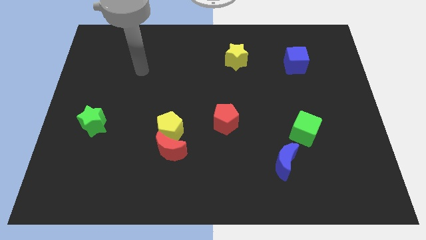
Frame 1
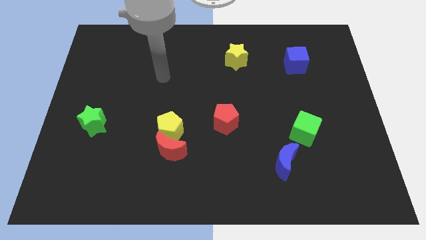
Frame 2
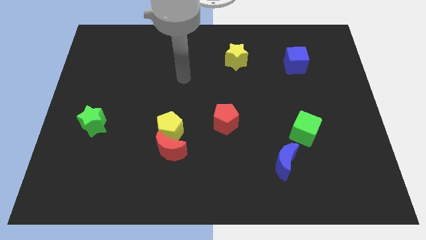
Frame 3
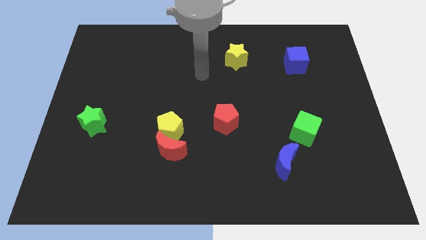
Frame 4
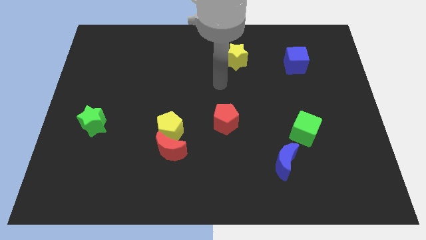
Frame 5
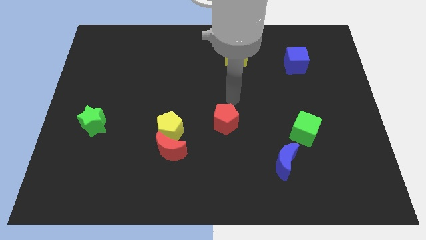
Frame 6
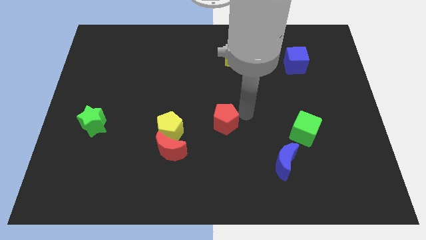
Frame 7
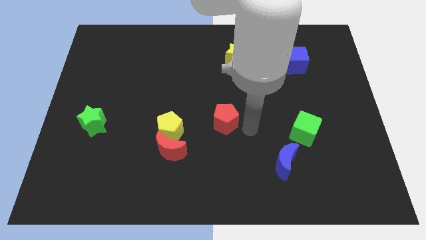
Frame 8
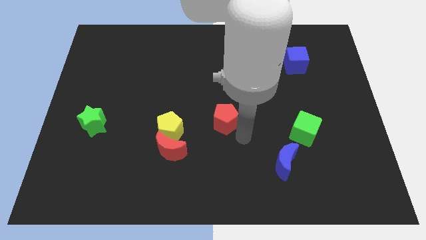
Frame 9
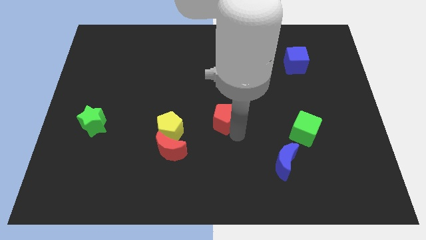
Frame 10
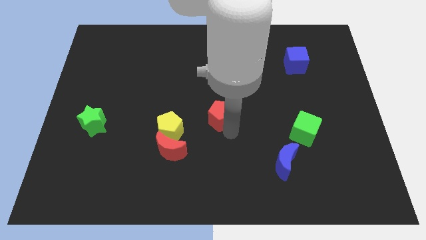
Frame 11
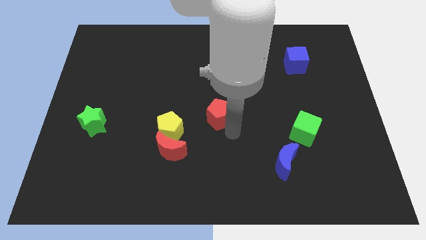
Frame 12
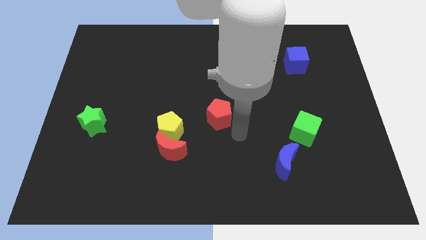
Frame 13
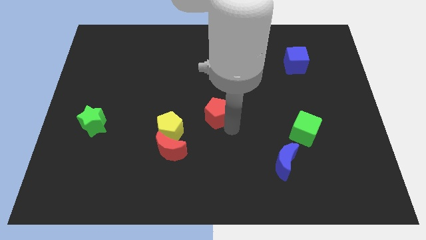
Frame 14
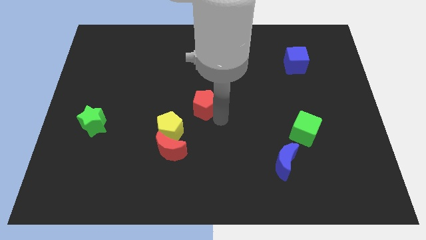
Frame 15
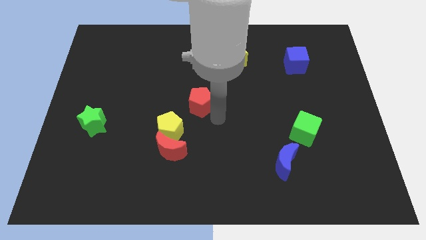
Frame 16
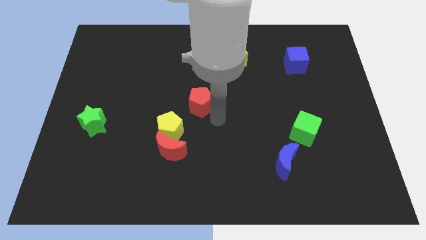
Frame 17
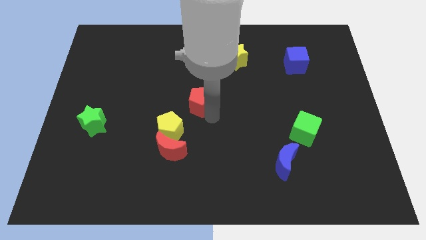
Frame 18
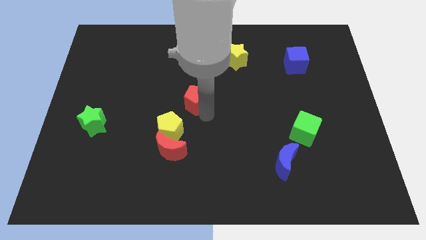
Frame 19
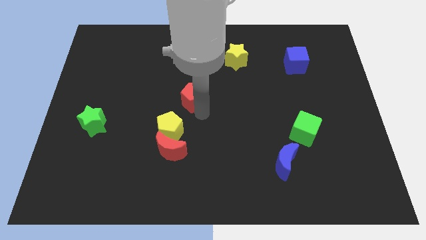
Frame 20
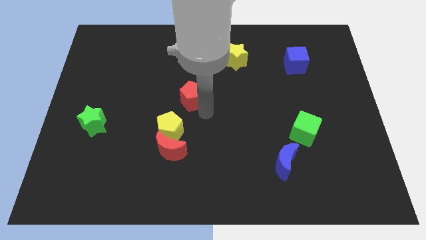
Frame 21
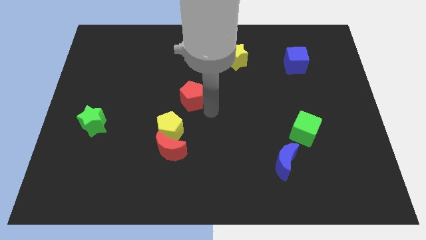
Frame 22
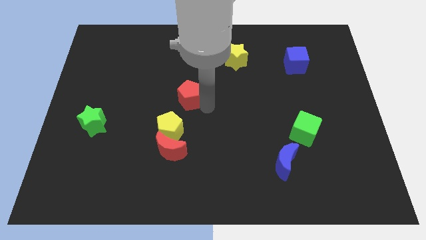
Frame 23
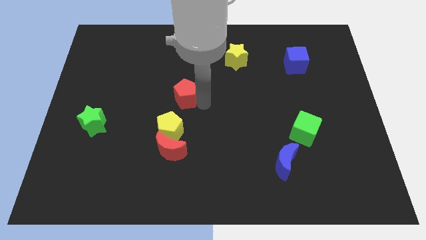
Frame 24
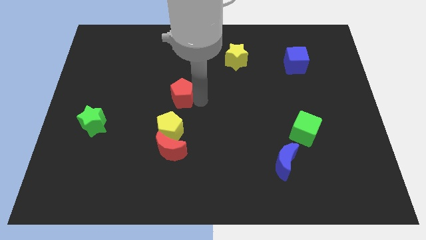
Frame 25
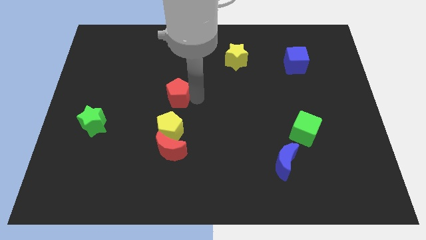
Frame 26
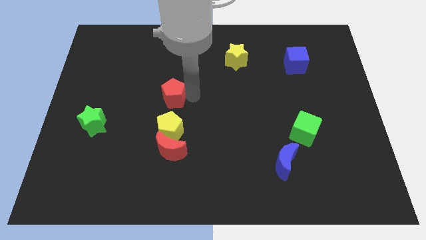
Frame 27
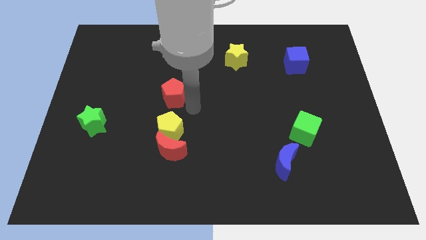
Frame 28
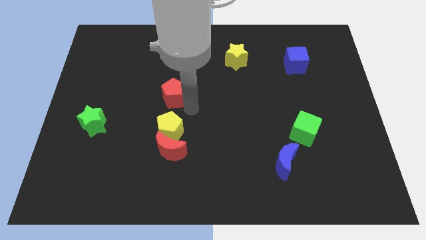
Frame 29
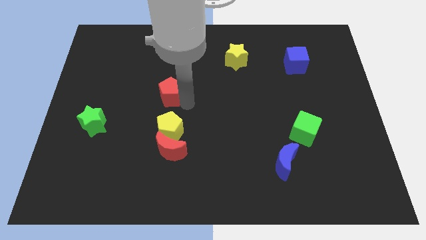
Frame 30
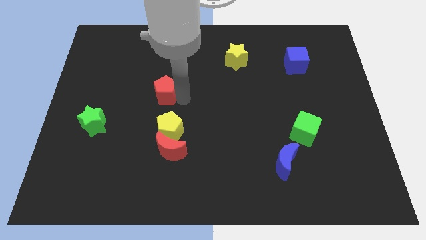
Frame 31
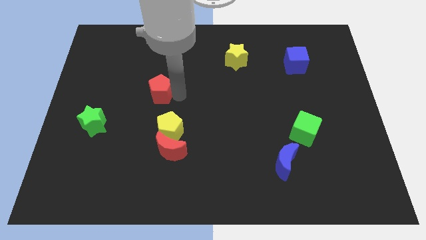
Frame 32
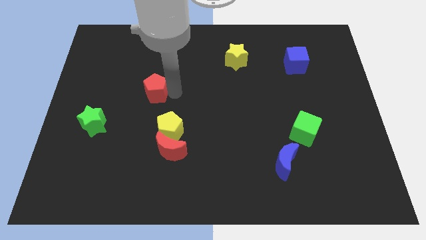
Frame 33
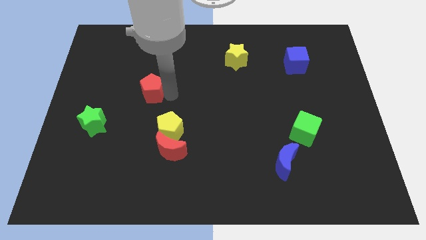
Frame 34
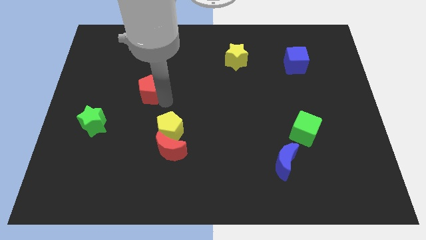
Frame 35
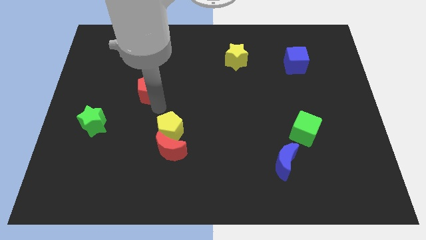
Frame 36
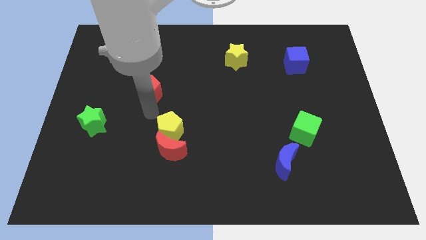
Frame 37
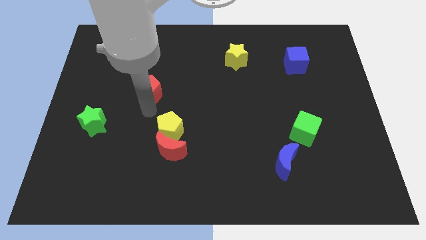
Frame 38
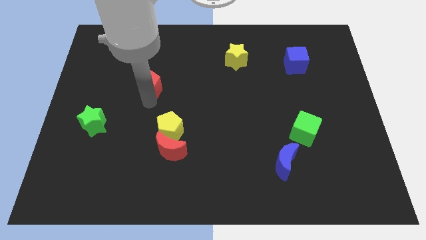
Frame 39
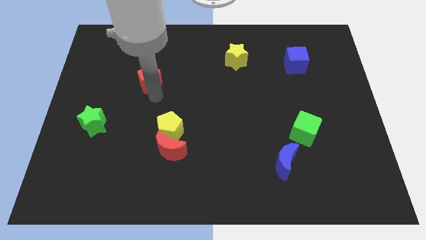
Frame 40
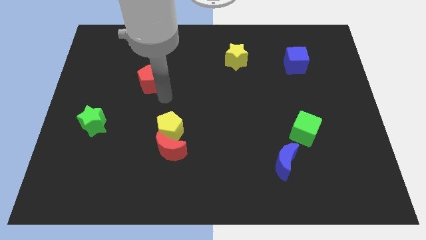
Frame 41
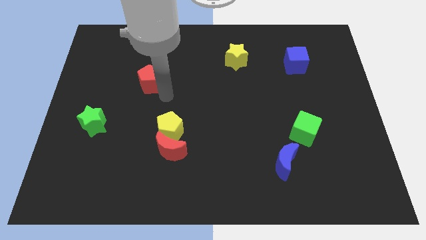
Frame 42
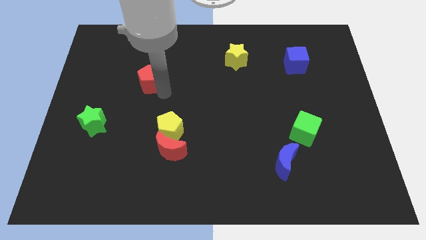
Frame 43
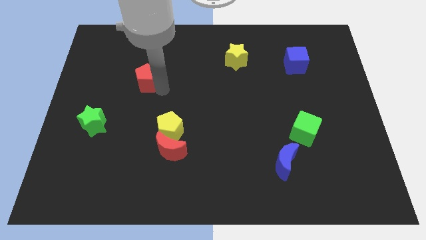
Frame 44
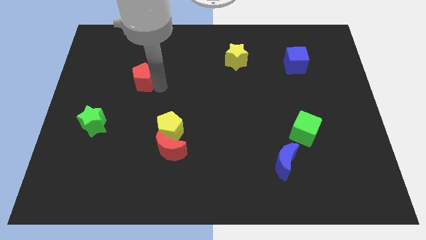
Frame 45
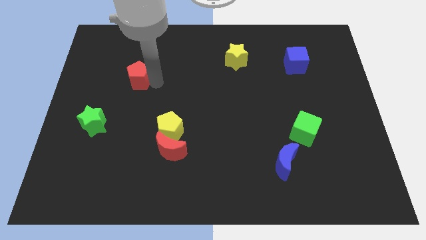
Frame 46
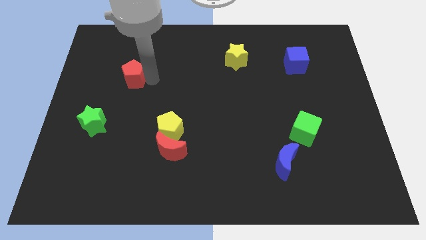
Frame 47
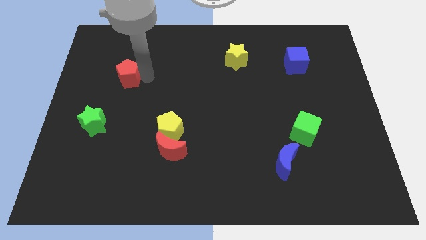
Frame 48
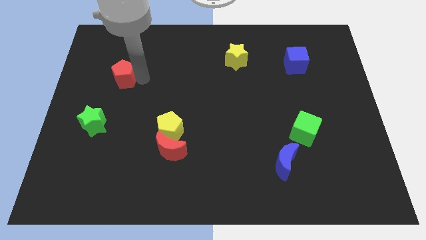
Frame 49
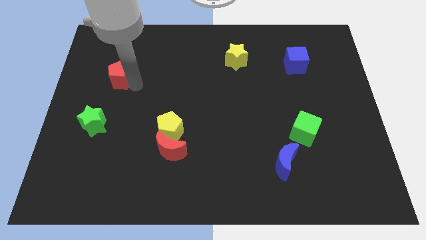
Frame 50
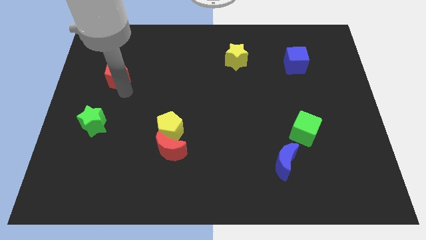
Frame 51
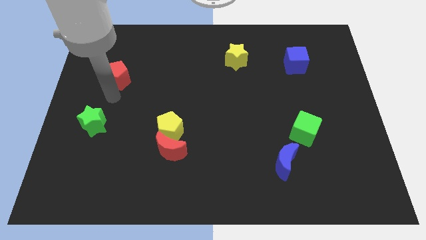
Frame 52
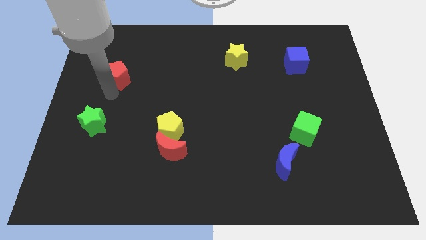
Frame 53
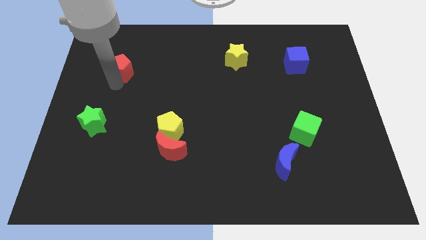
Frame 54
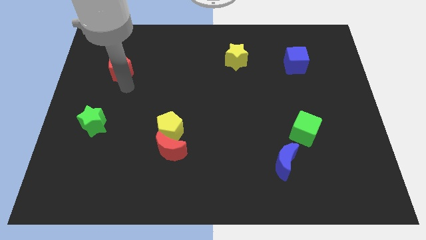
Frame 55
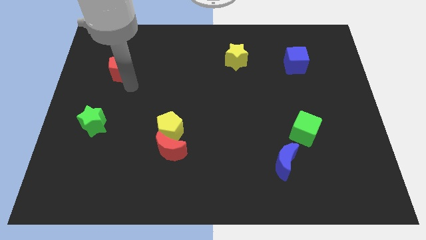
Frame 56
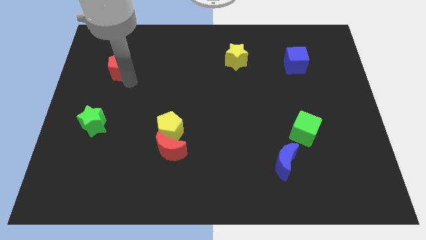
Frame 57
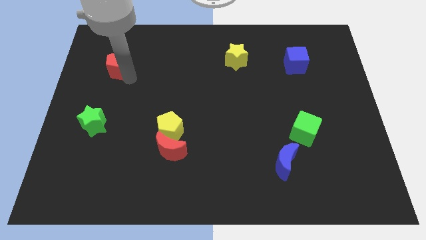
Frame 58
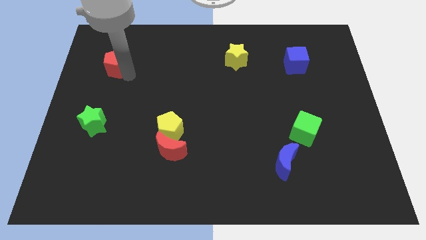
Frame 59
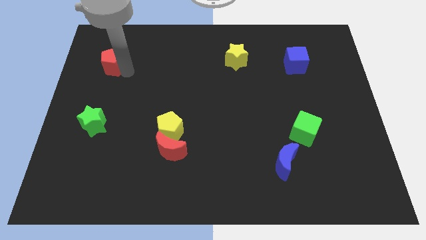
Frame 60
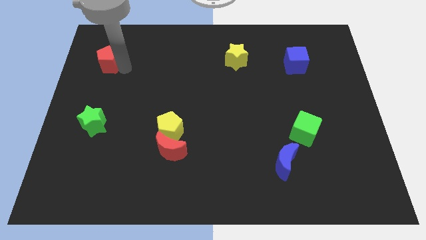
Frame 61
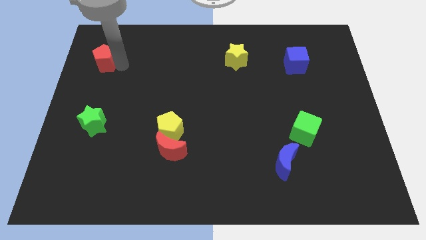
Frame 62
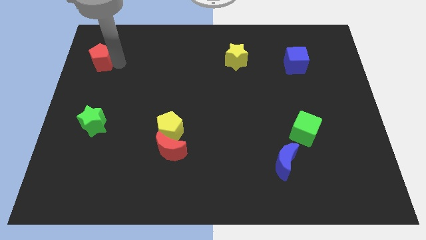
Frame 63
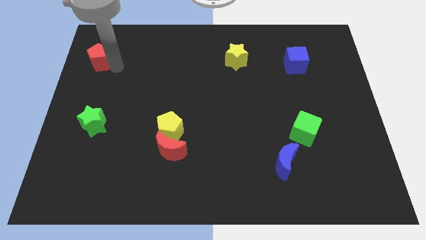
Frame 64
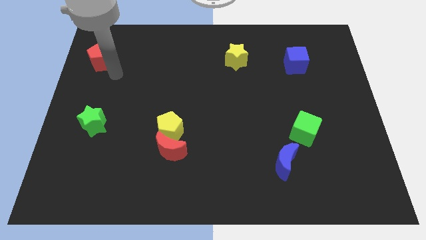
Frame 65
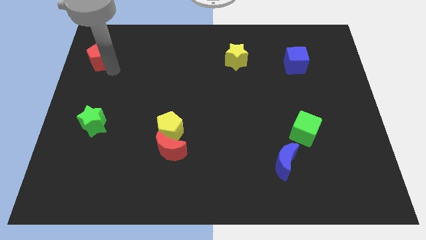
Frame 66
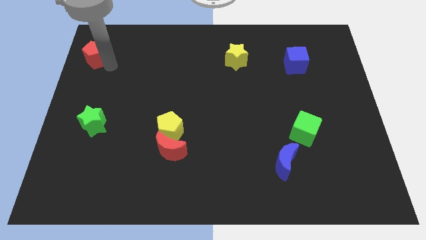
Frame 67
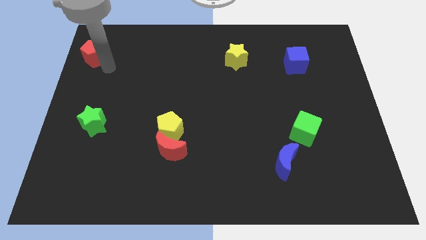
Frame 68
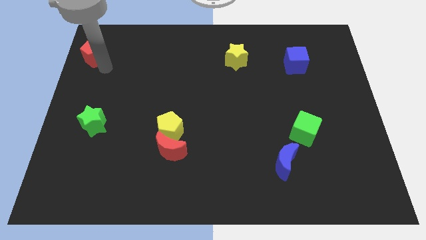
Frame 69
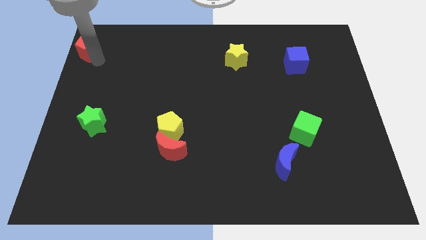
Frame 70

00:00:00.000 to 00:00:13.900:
push the red pentagon to the upper left corner
